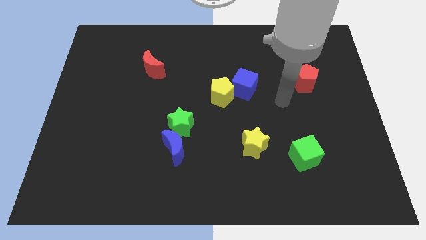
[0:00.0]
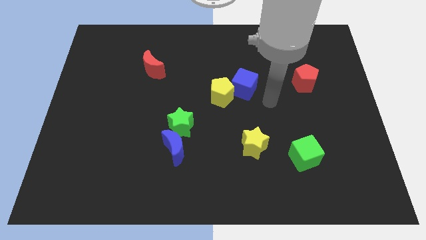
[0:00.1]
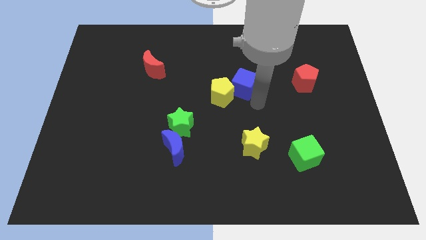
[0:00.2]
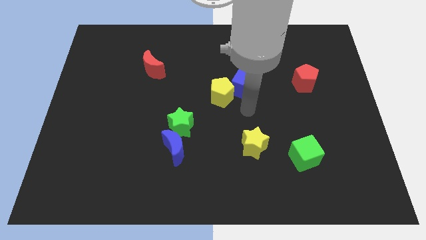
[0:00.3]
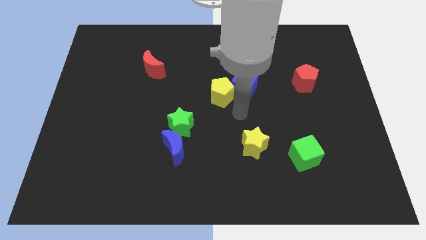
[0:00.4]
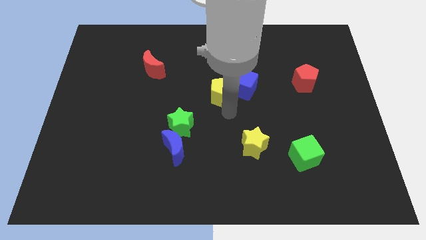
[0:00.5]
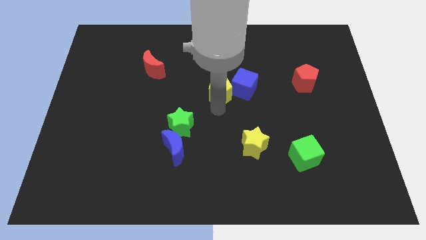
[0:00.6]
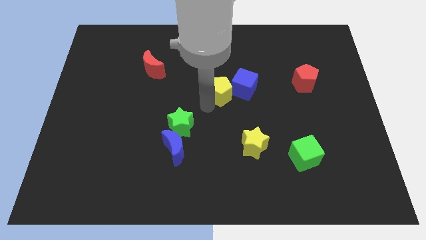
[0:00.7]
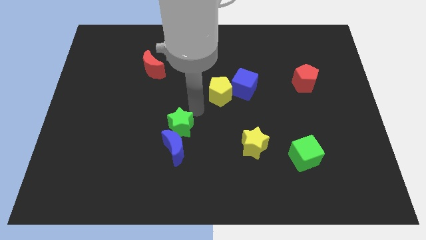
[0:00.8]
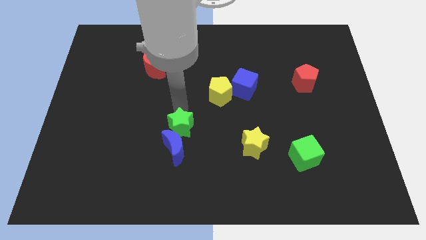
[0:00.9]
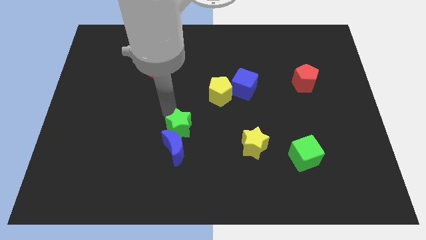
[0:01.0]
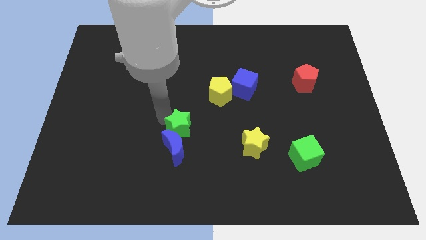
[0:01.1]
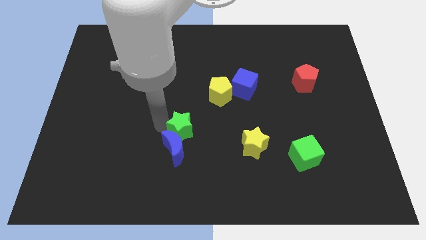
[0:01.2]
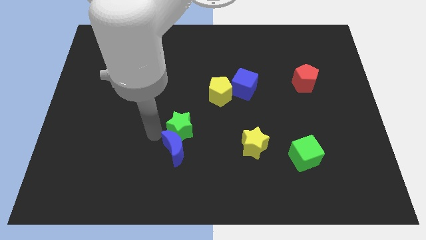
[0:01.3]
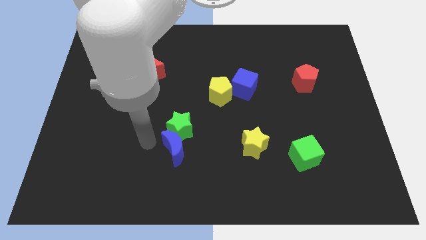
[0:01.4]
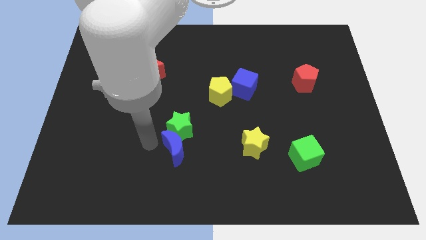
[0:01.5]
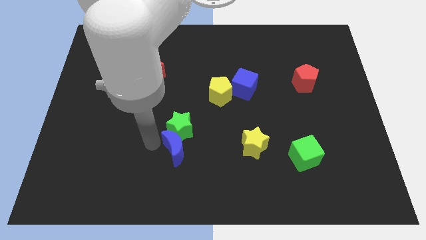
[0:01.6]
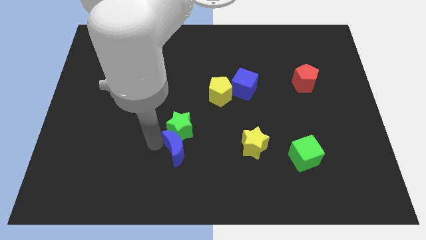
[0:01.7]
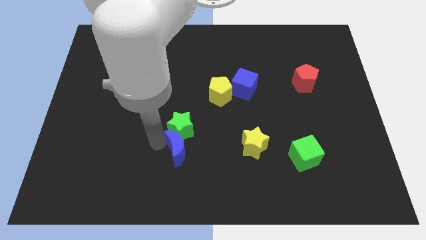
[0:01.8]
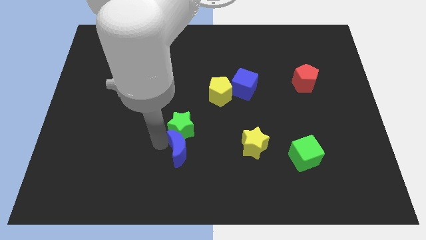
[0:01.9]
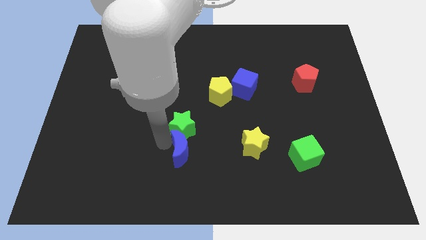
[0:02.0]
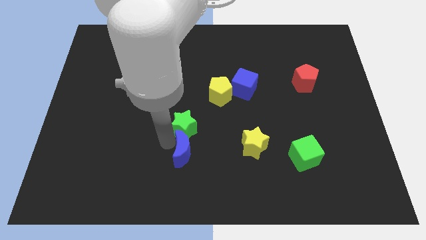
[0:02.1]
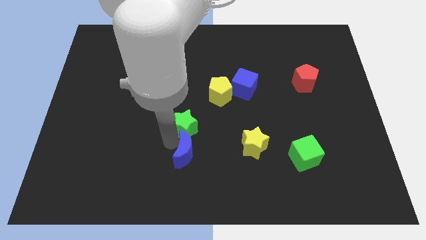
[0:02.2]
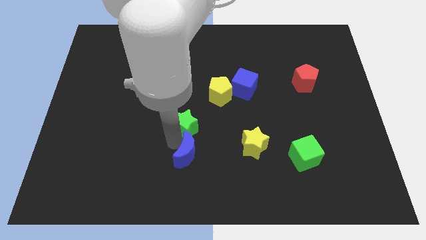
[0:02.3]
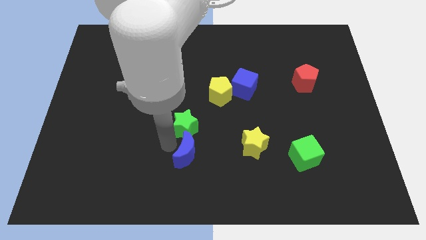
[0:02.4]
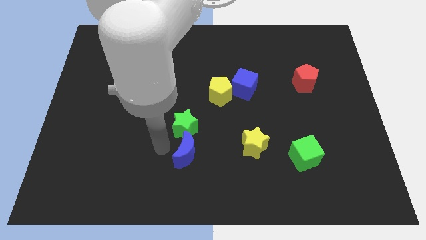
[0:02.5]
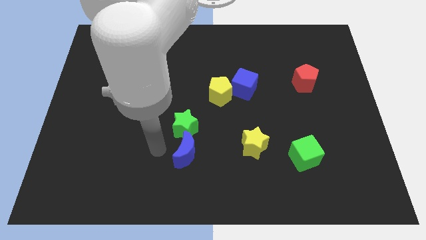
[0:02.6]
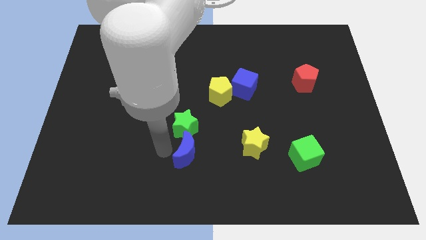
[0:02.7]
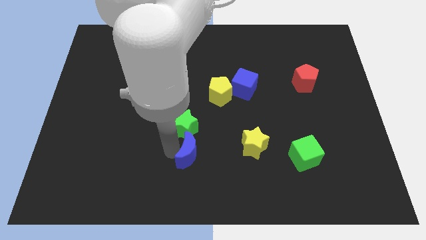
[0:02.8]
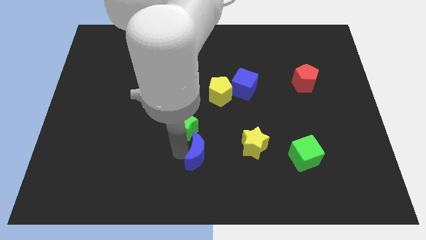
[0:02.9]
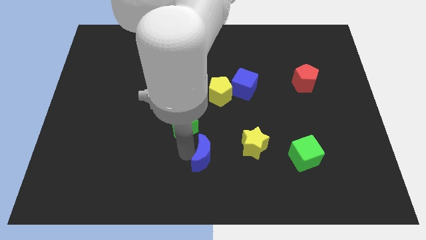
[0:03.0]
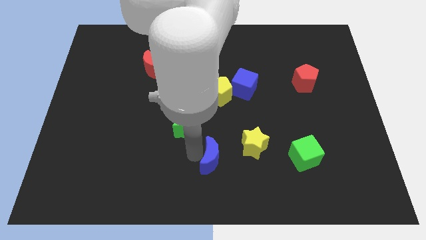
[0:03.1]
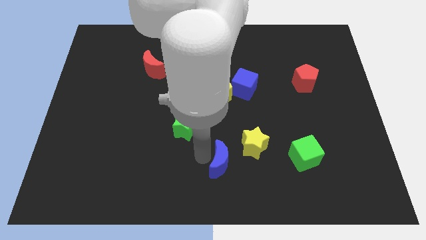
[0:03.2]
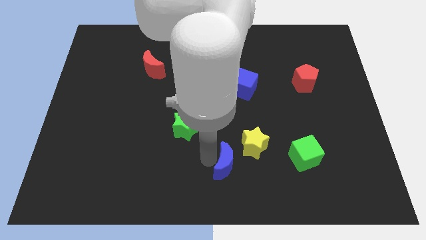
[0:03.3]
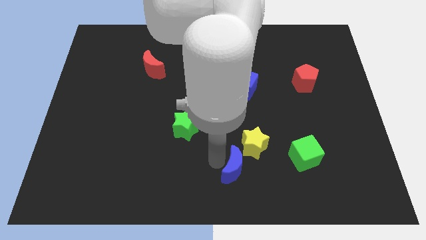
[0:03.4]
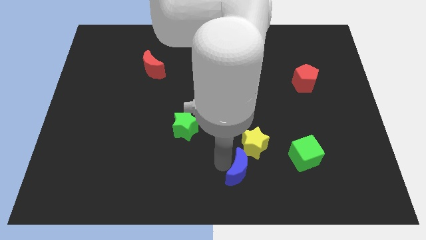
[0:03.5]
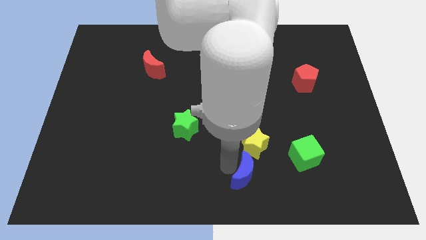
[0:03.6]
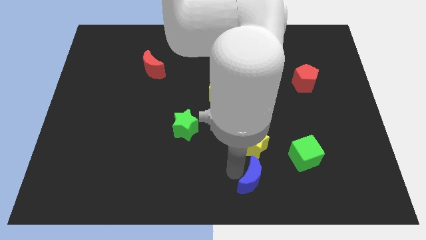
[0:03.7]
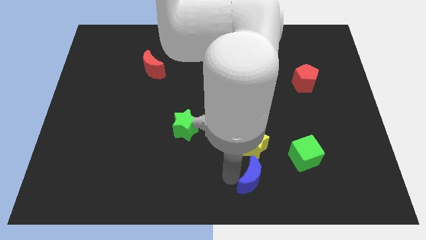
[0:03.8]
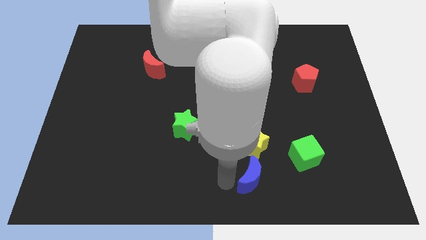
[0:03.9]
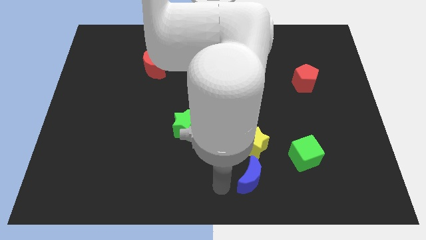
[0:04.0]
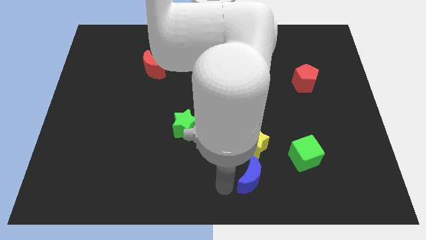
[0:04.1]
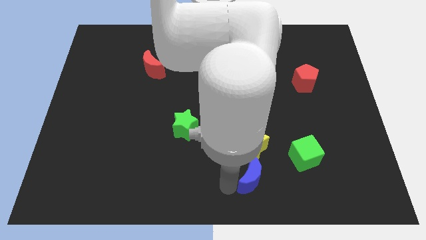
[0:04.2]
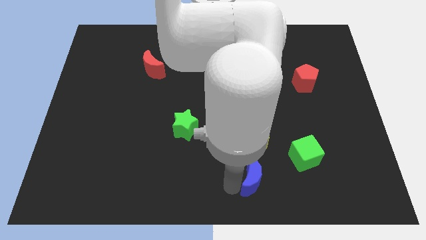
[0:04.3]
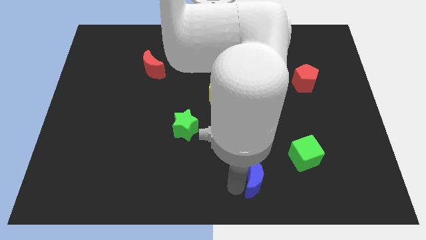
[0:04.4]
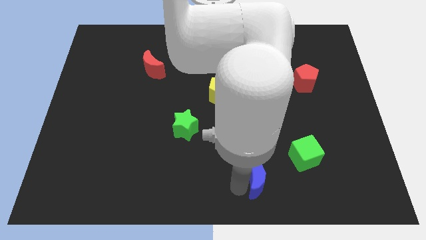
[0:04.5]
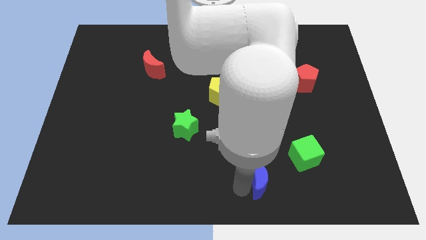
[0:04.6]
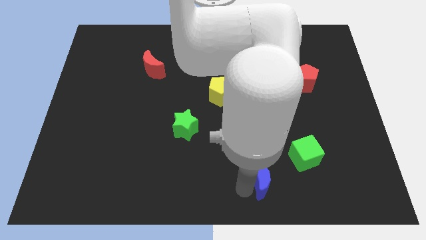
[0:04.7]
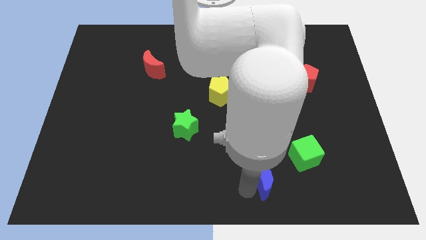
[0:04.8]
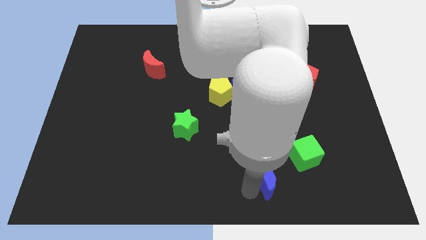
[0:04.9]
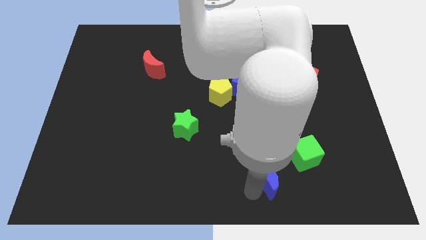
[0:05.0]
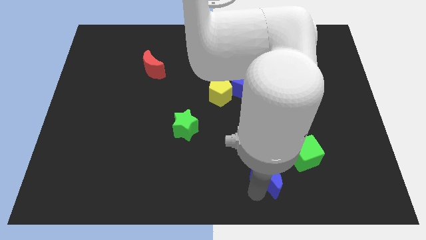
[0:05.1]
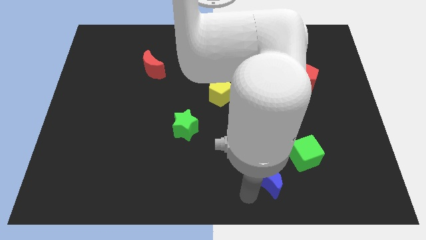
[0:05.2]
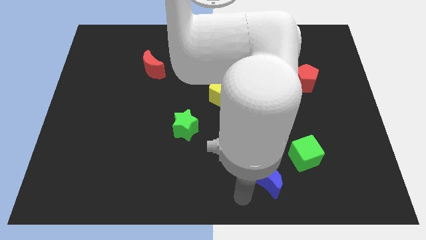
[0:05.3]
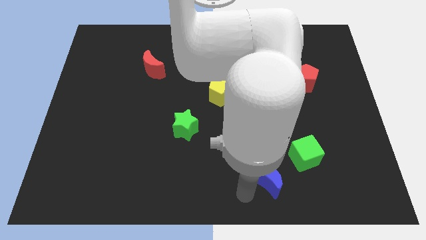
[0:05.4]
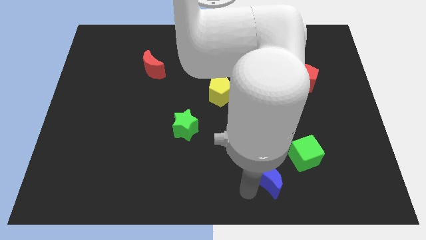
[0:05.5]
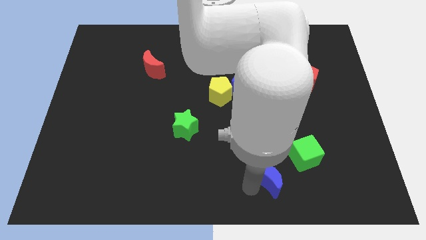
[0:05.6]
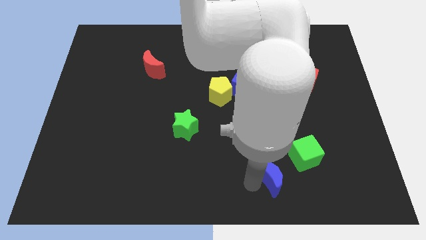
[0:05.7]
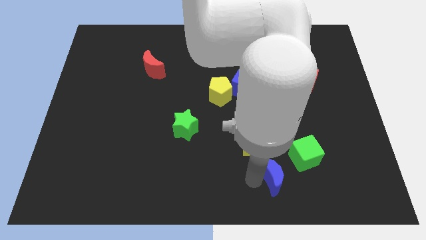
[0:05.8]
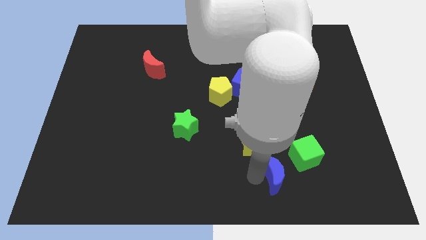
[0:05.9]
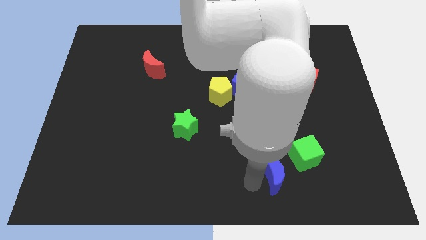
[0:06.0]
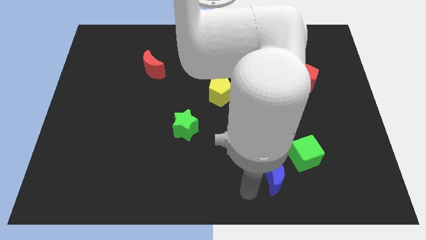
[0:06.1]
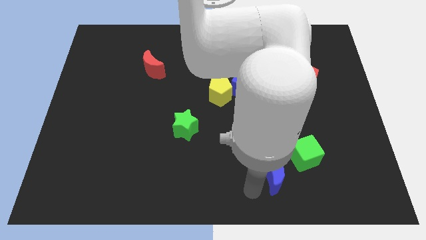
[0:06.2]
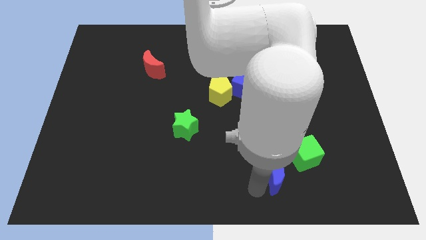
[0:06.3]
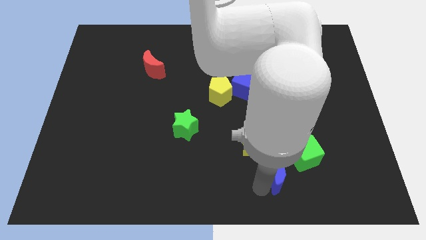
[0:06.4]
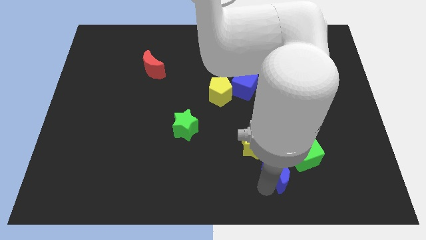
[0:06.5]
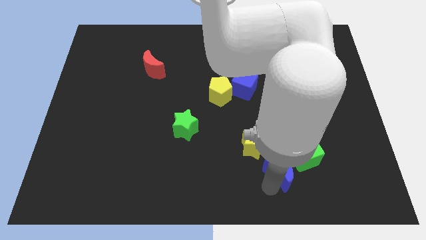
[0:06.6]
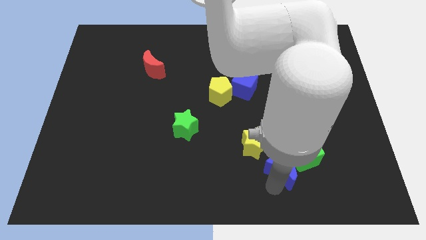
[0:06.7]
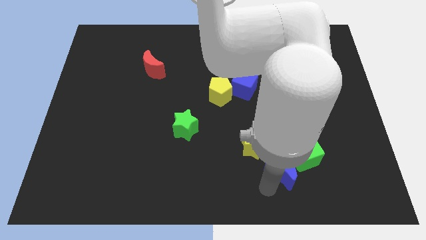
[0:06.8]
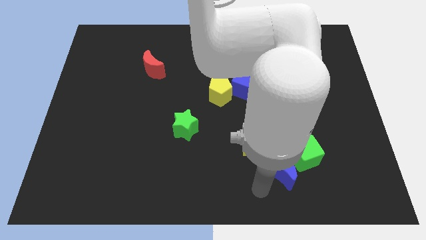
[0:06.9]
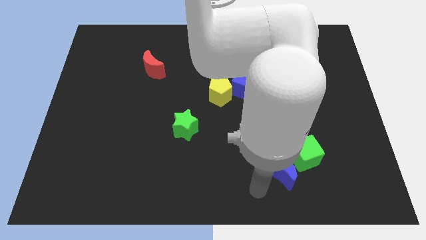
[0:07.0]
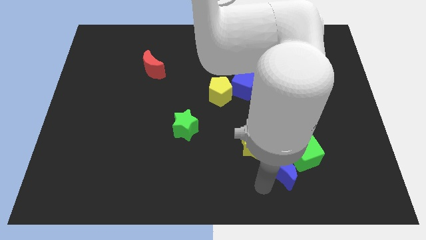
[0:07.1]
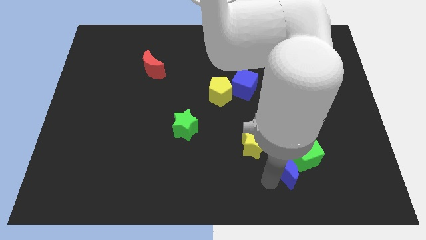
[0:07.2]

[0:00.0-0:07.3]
put the blue moon towards the green cube
